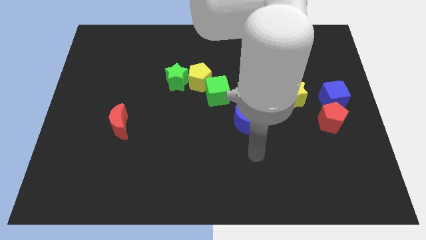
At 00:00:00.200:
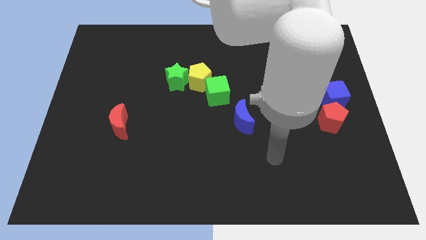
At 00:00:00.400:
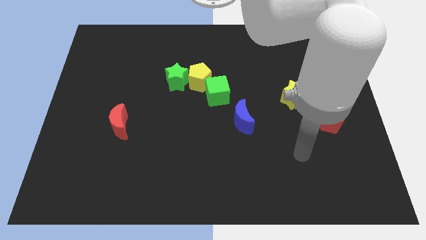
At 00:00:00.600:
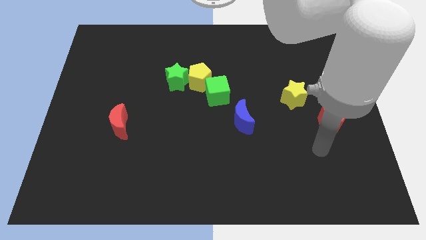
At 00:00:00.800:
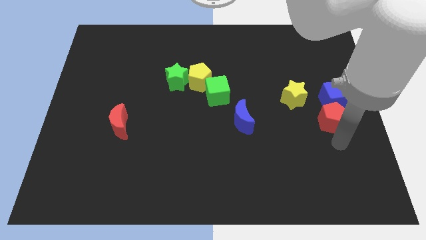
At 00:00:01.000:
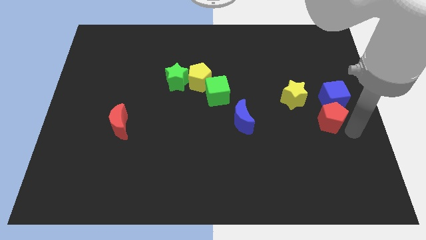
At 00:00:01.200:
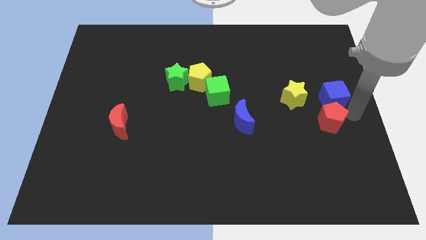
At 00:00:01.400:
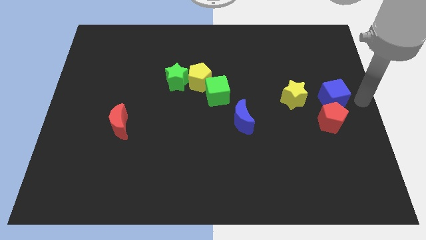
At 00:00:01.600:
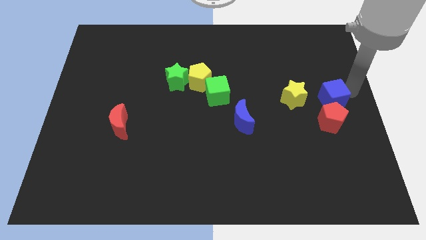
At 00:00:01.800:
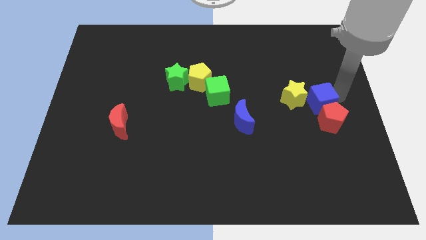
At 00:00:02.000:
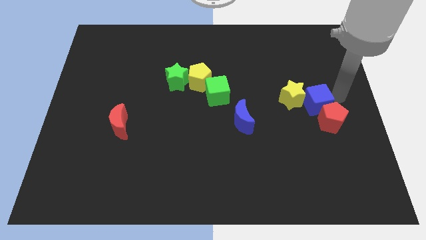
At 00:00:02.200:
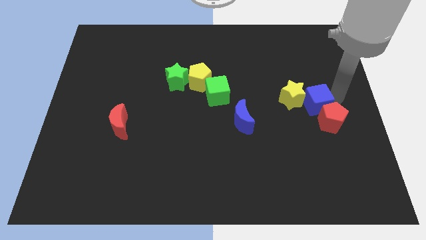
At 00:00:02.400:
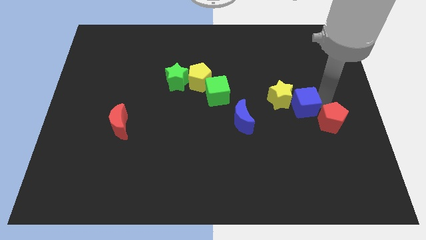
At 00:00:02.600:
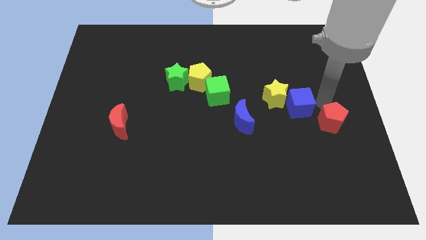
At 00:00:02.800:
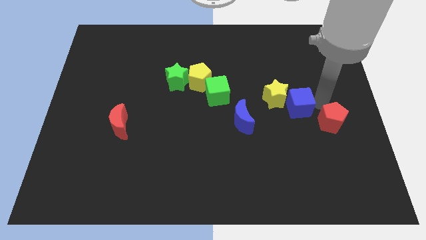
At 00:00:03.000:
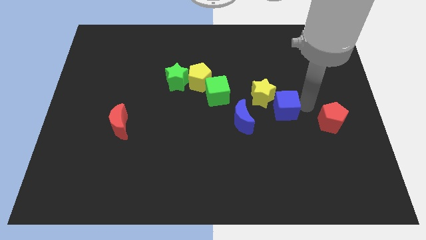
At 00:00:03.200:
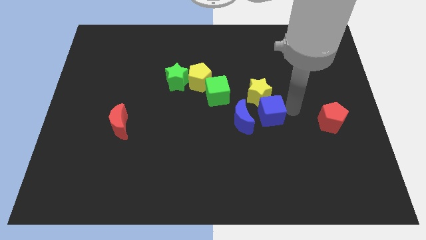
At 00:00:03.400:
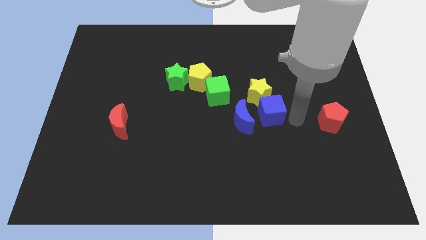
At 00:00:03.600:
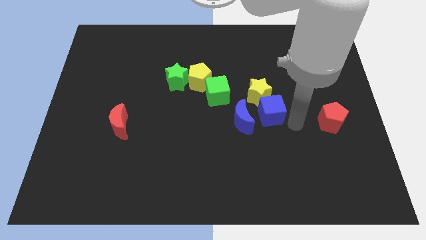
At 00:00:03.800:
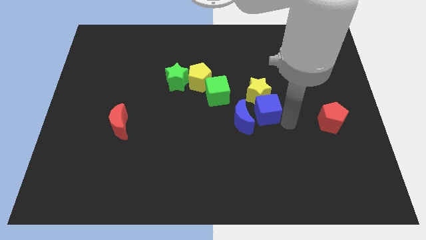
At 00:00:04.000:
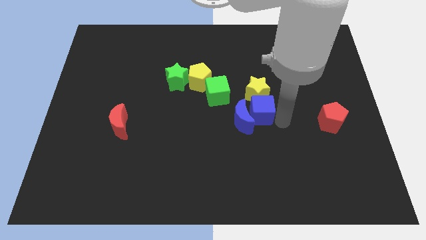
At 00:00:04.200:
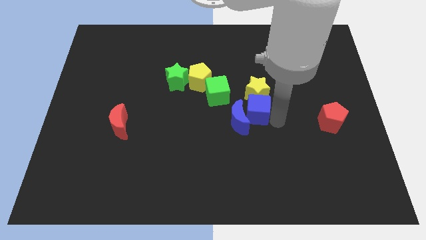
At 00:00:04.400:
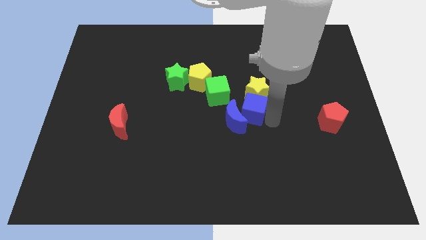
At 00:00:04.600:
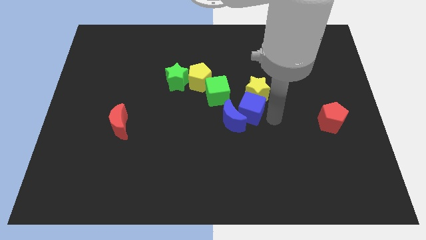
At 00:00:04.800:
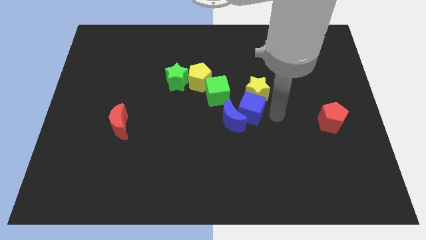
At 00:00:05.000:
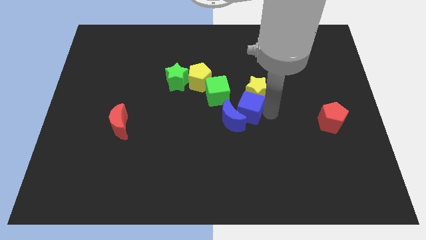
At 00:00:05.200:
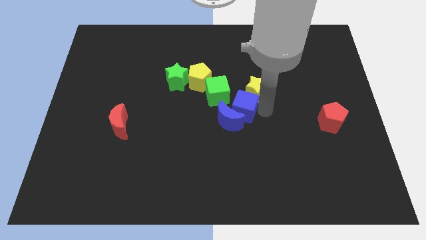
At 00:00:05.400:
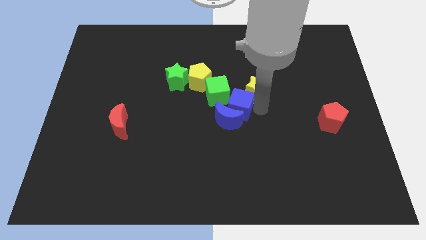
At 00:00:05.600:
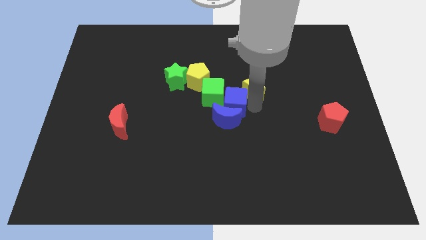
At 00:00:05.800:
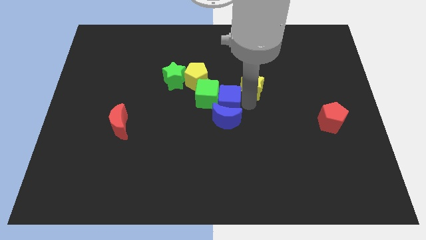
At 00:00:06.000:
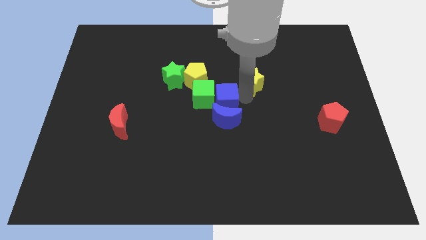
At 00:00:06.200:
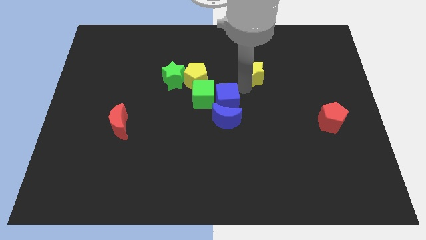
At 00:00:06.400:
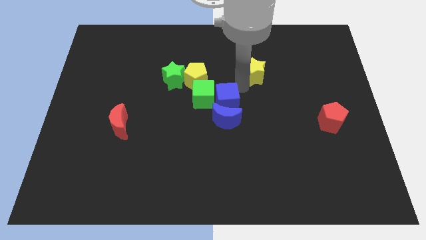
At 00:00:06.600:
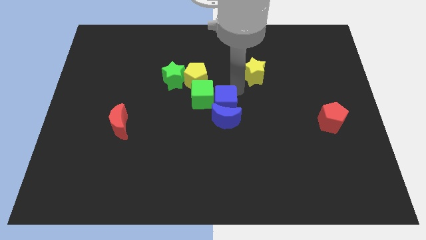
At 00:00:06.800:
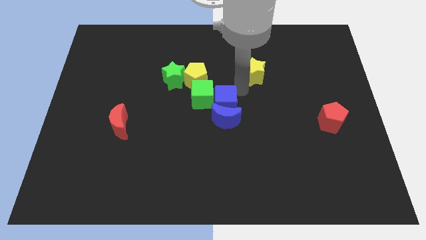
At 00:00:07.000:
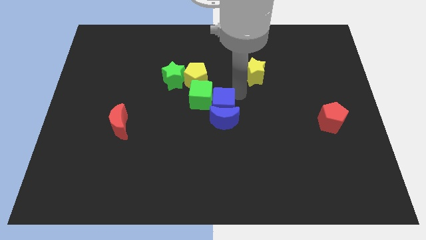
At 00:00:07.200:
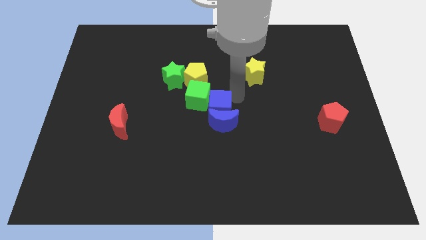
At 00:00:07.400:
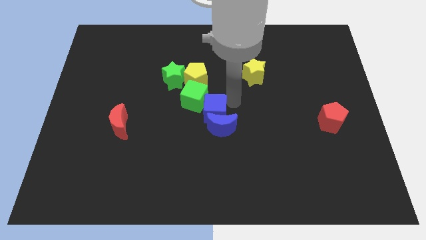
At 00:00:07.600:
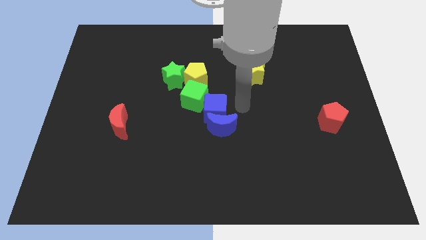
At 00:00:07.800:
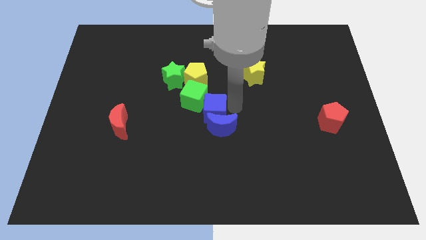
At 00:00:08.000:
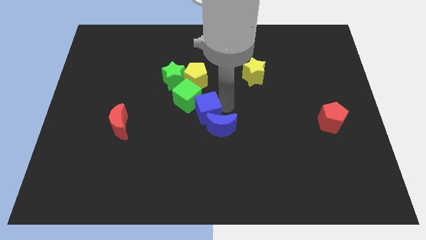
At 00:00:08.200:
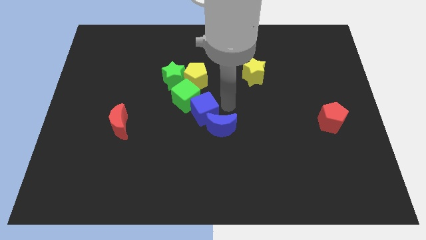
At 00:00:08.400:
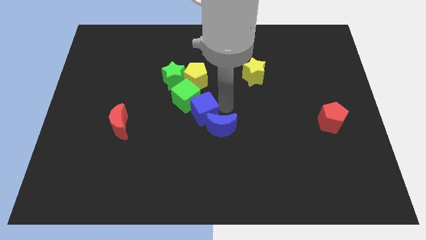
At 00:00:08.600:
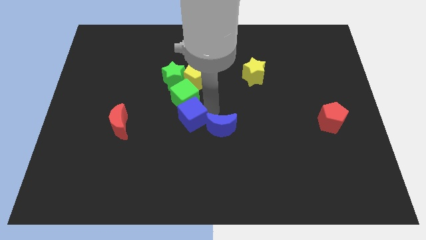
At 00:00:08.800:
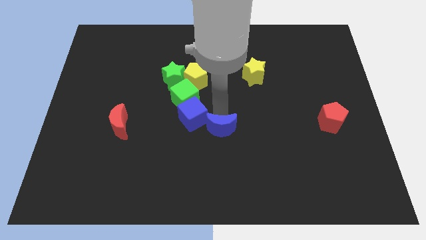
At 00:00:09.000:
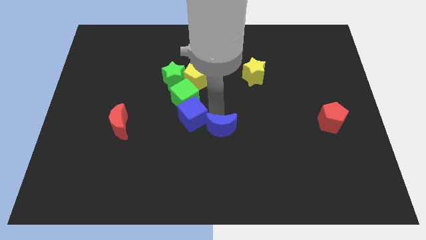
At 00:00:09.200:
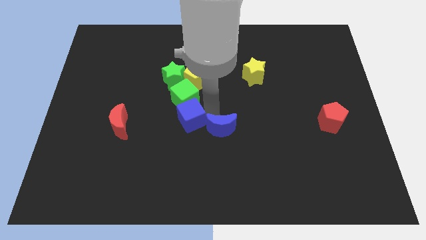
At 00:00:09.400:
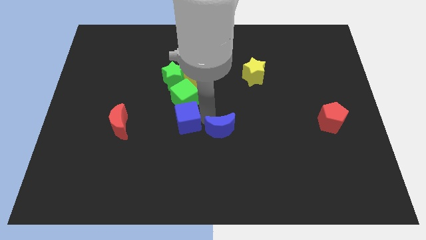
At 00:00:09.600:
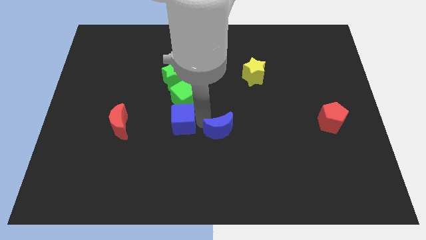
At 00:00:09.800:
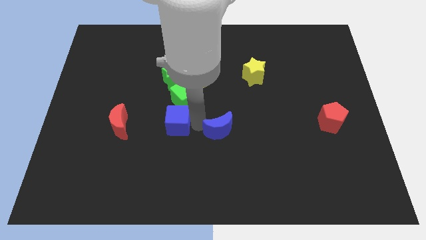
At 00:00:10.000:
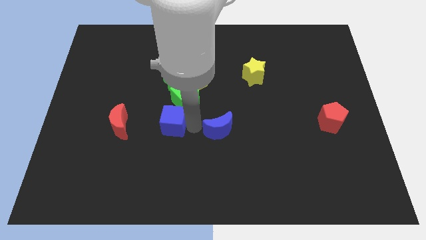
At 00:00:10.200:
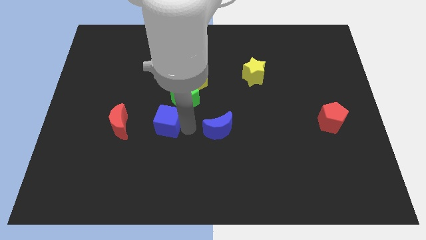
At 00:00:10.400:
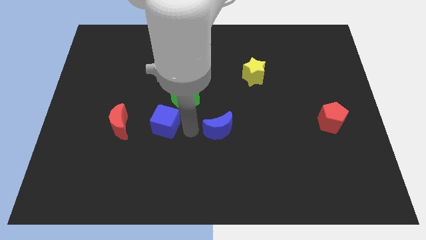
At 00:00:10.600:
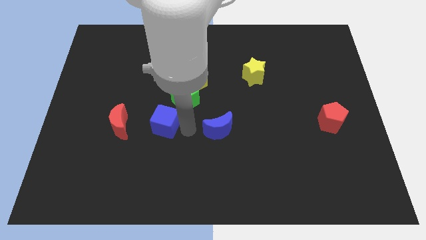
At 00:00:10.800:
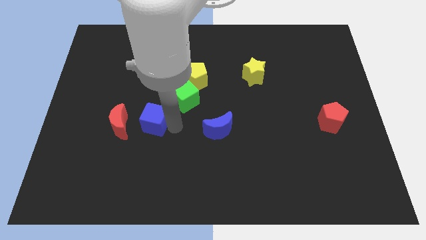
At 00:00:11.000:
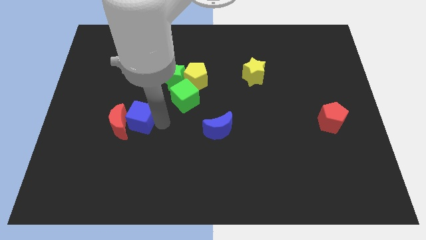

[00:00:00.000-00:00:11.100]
push the blue cube to the red moon
